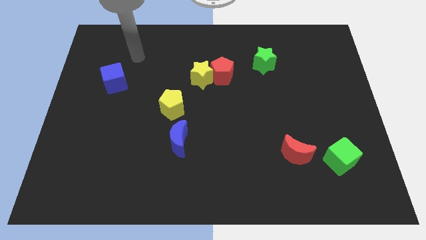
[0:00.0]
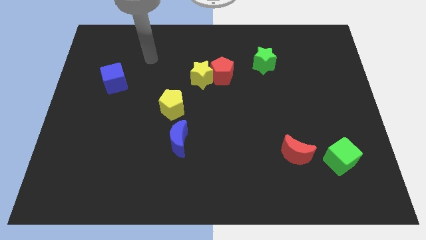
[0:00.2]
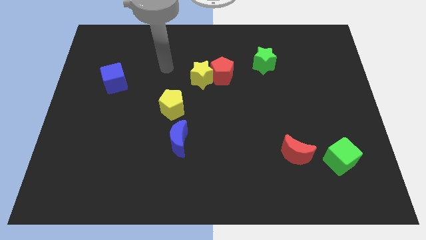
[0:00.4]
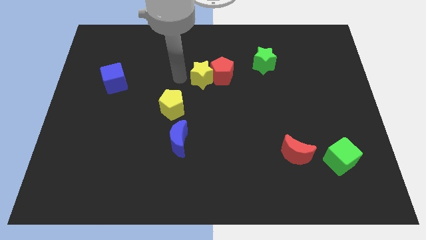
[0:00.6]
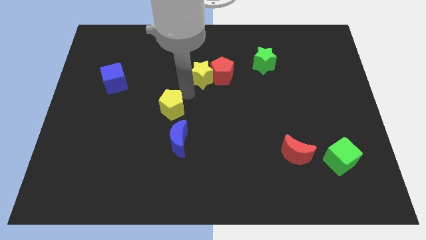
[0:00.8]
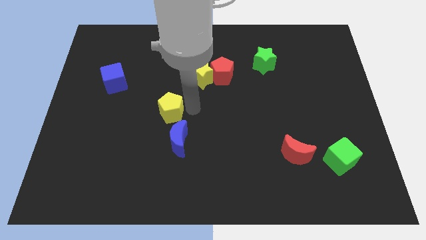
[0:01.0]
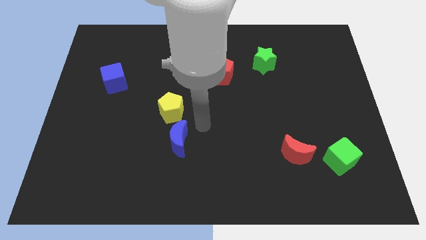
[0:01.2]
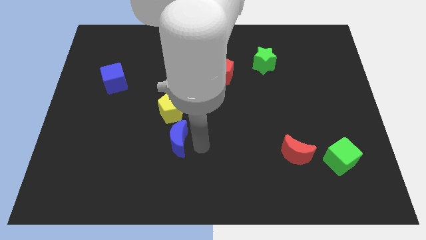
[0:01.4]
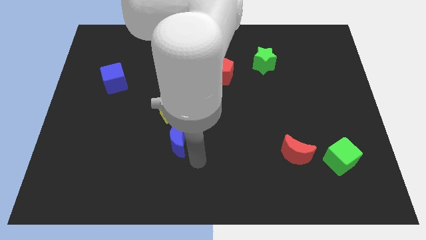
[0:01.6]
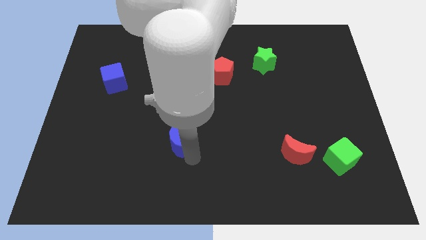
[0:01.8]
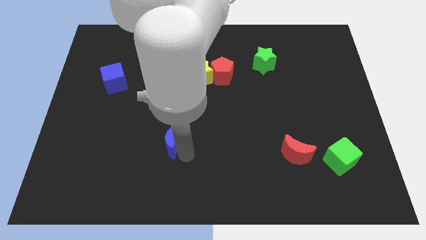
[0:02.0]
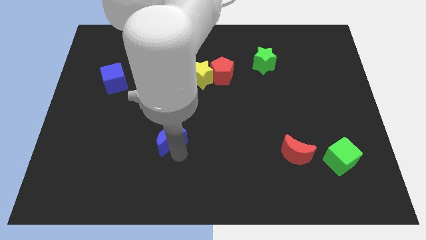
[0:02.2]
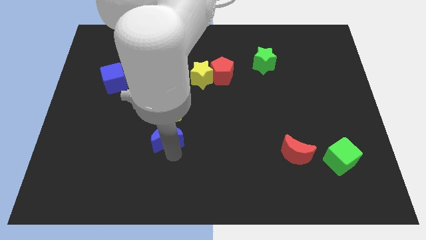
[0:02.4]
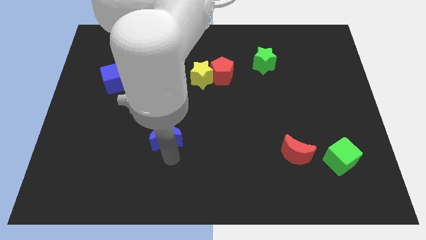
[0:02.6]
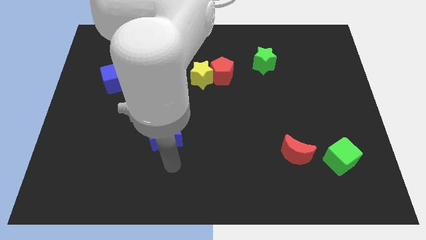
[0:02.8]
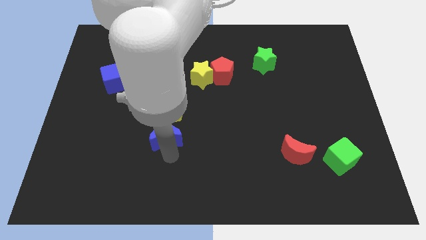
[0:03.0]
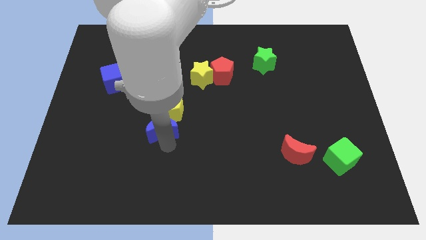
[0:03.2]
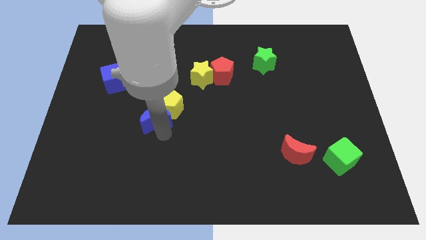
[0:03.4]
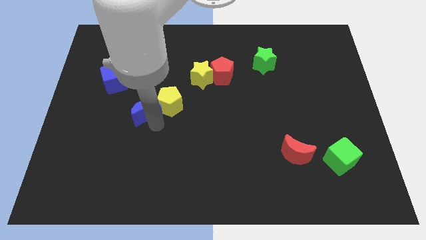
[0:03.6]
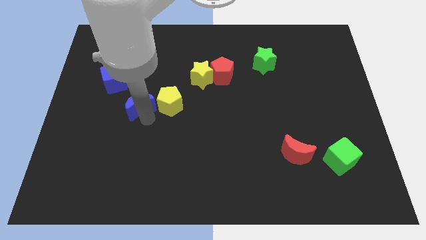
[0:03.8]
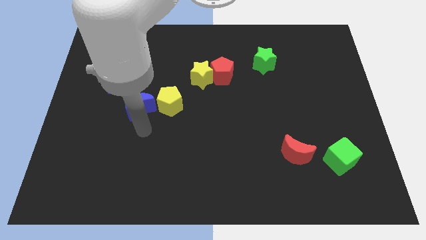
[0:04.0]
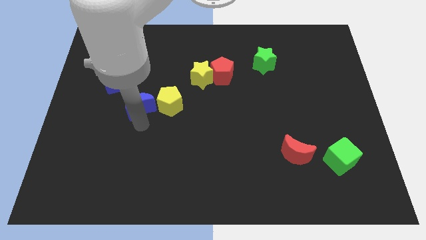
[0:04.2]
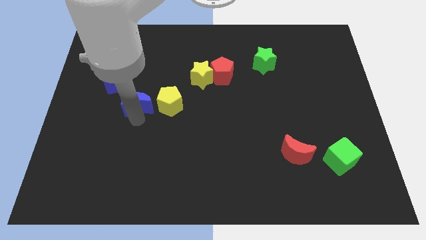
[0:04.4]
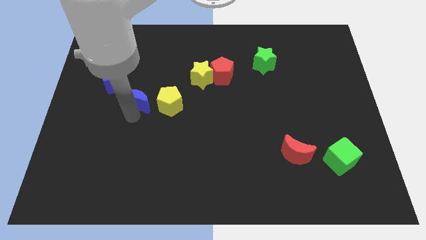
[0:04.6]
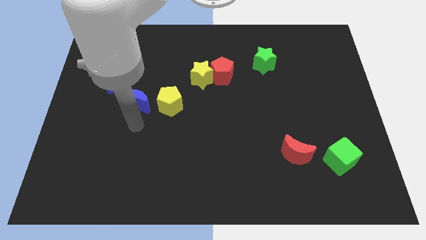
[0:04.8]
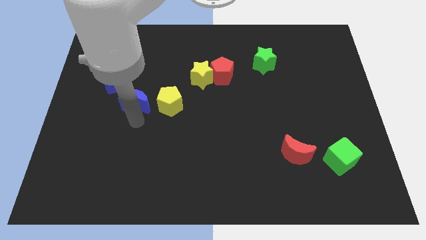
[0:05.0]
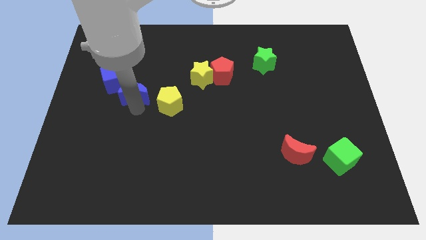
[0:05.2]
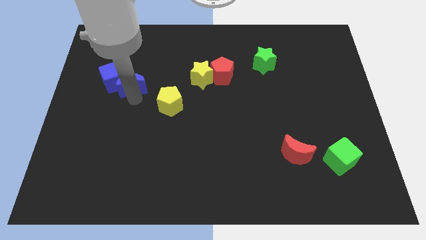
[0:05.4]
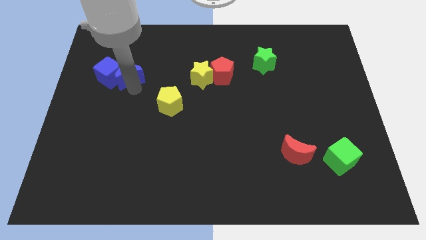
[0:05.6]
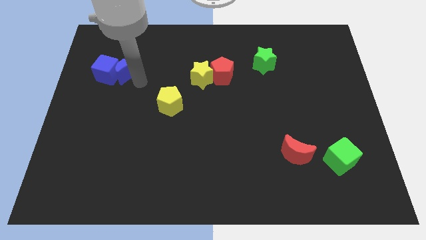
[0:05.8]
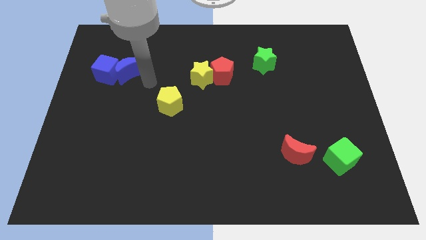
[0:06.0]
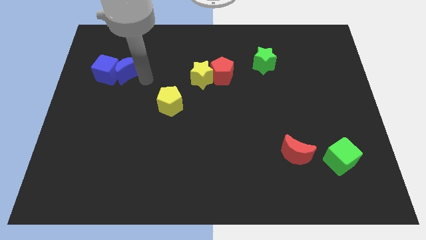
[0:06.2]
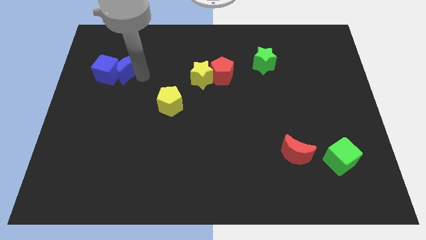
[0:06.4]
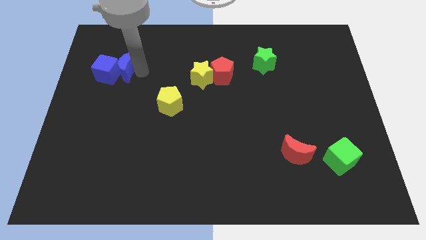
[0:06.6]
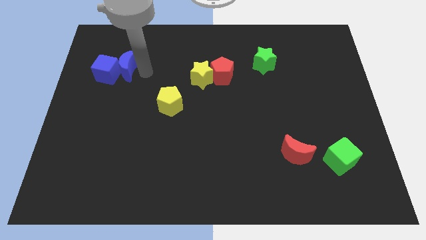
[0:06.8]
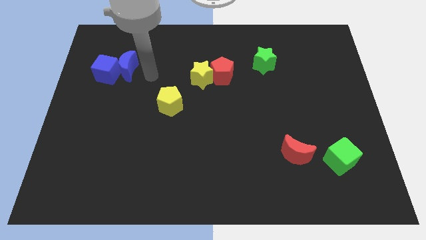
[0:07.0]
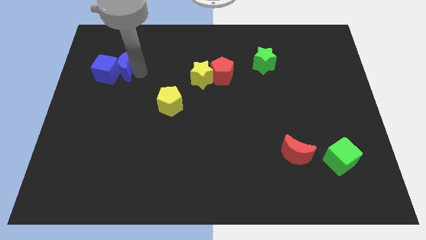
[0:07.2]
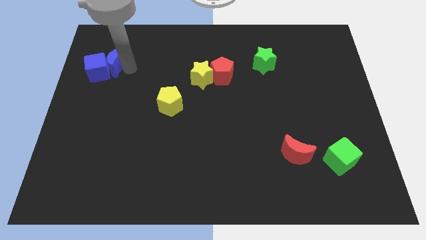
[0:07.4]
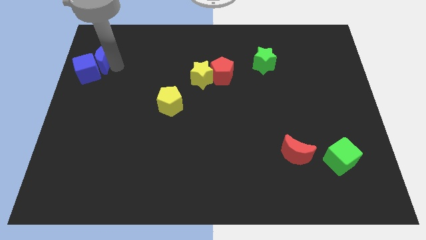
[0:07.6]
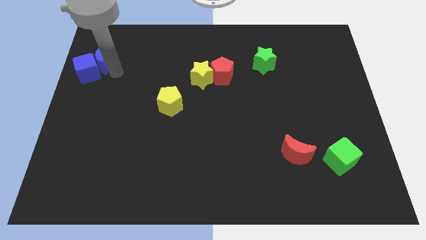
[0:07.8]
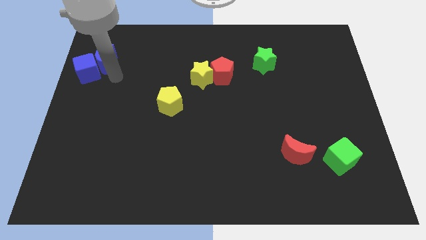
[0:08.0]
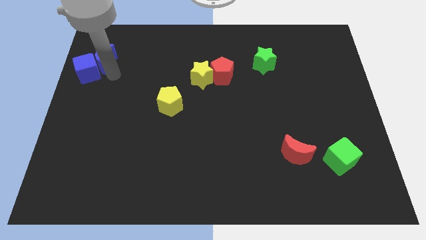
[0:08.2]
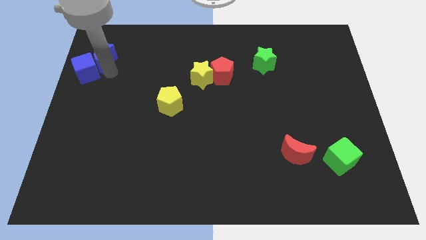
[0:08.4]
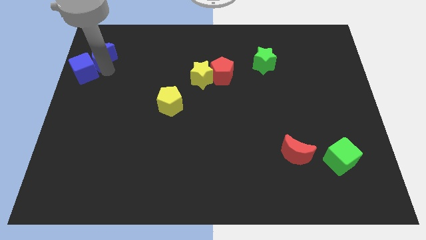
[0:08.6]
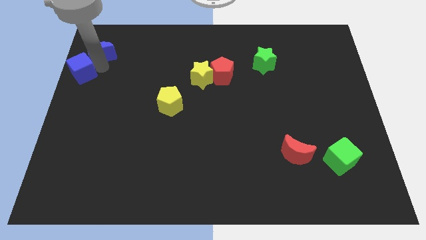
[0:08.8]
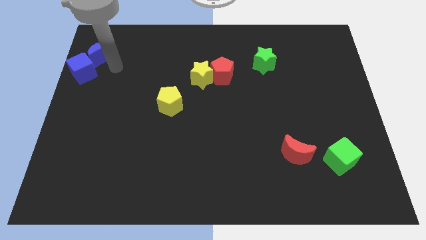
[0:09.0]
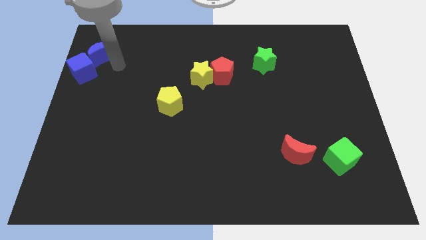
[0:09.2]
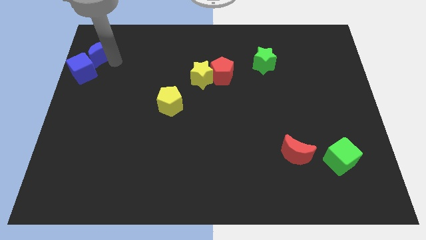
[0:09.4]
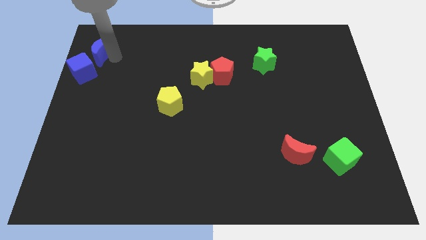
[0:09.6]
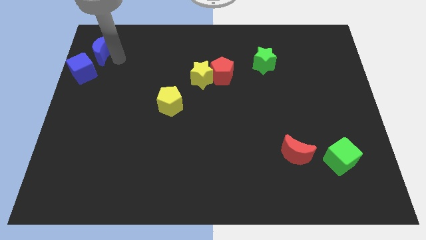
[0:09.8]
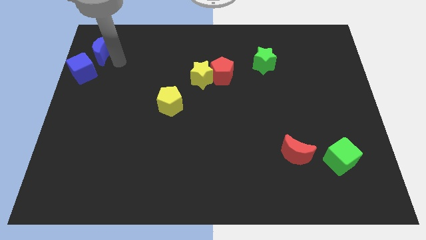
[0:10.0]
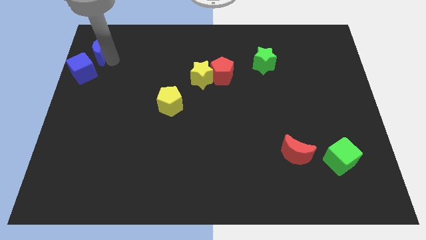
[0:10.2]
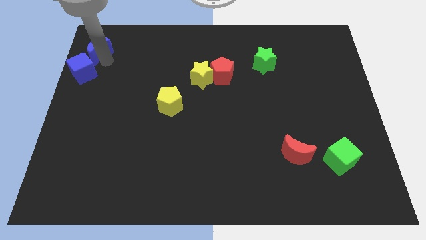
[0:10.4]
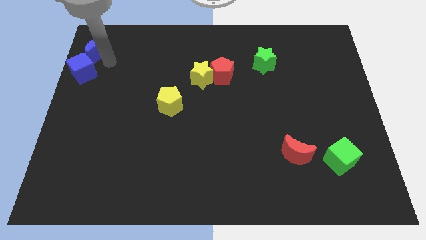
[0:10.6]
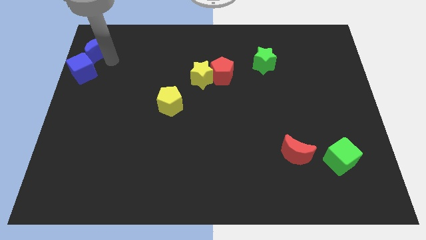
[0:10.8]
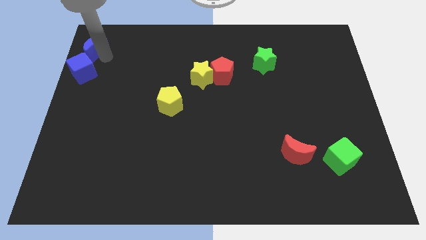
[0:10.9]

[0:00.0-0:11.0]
move the blue moon to the top left of the board

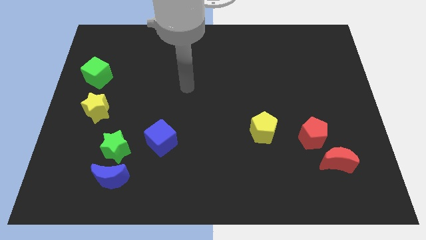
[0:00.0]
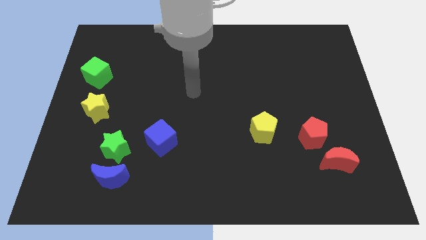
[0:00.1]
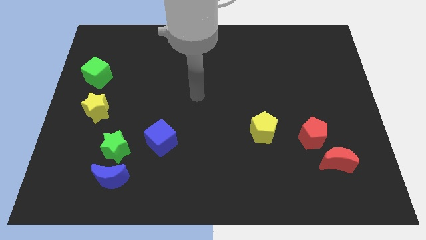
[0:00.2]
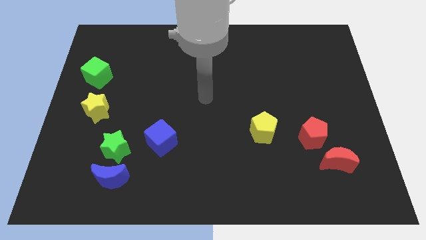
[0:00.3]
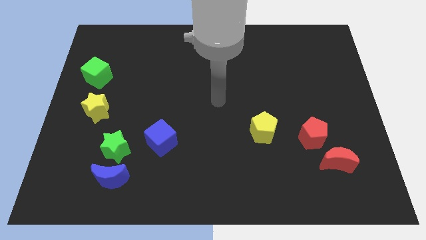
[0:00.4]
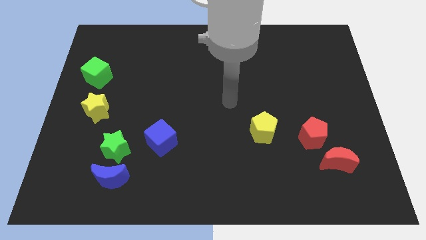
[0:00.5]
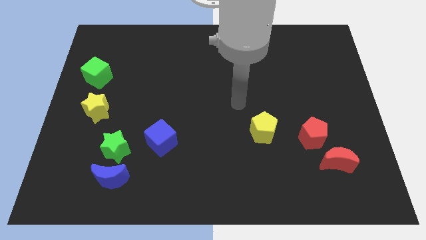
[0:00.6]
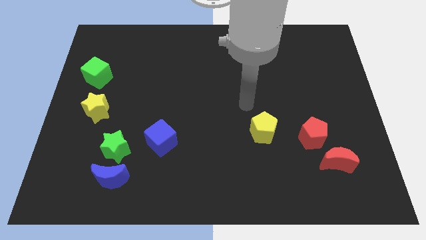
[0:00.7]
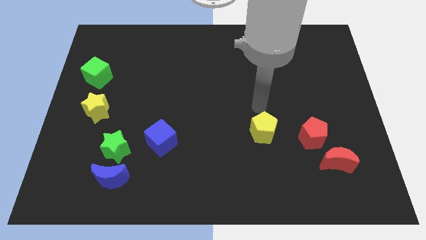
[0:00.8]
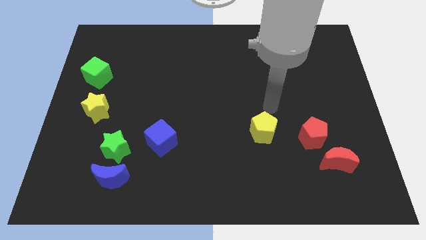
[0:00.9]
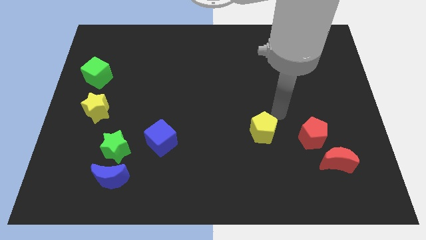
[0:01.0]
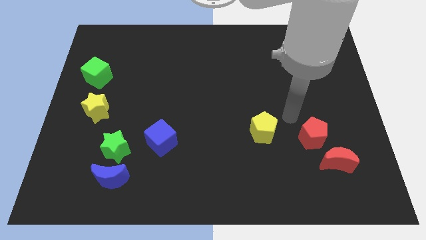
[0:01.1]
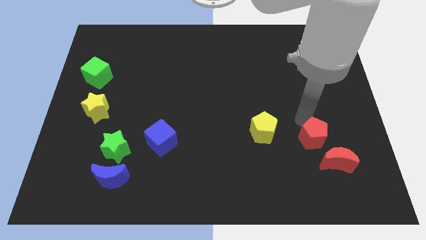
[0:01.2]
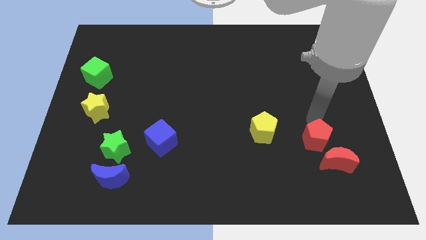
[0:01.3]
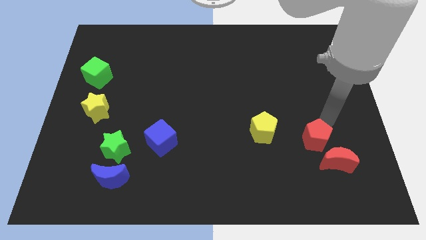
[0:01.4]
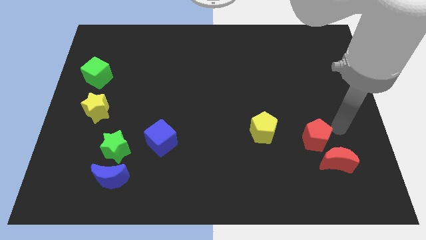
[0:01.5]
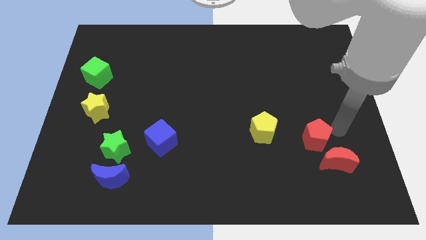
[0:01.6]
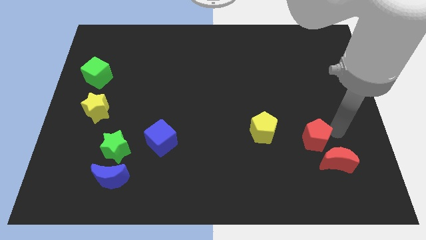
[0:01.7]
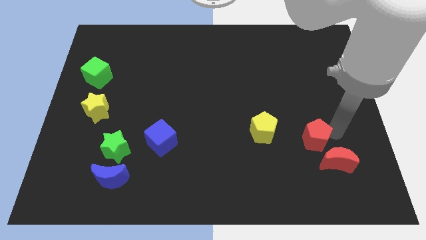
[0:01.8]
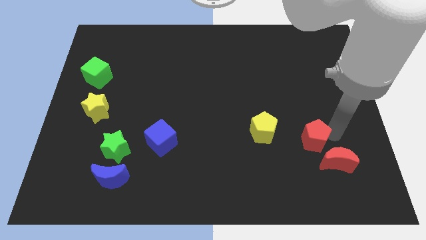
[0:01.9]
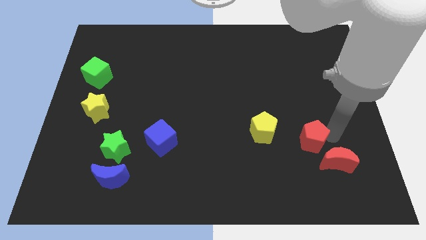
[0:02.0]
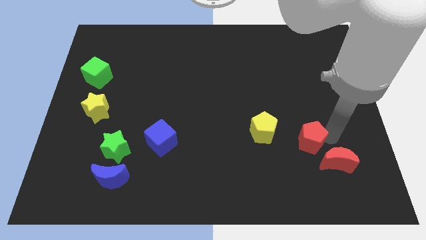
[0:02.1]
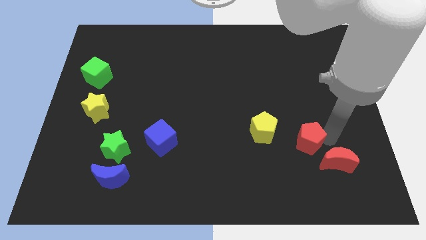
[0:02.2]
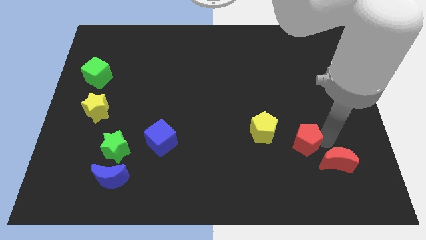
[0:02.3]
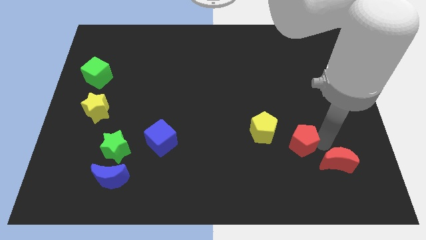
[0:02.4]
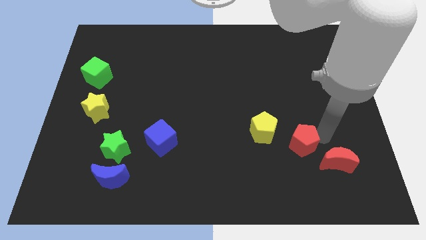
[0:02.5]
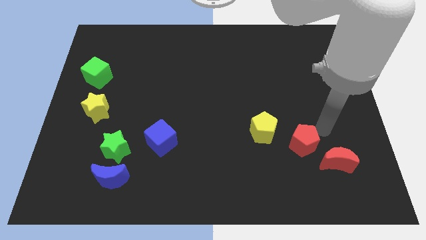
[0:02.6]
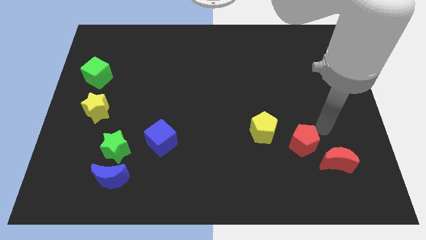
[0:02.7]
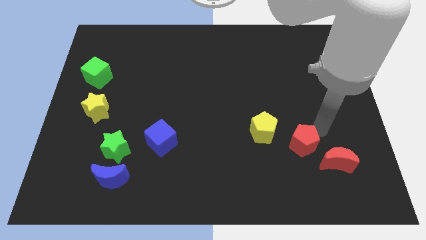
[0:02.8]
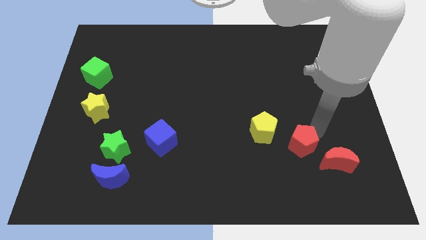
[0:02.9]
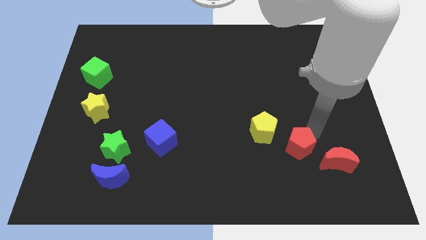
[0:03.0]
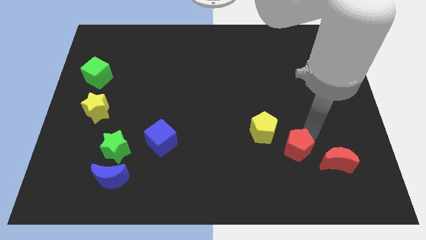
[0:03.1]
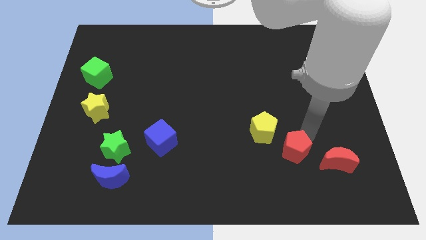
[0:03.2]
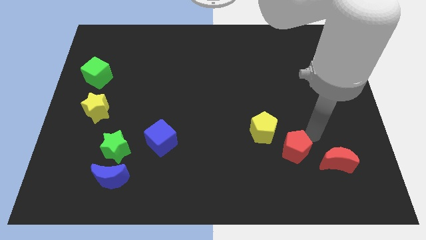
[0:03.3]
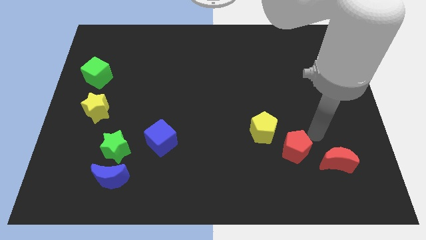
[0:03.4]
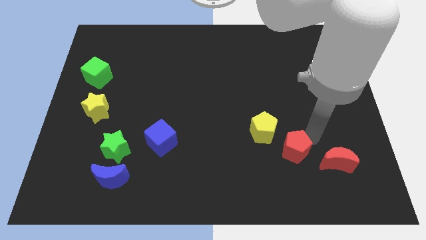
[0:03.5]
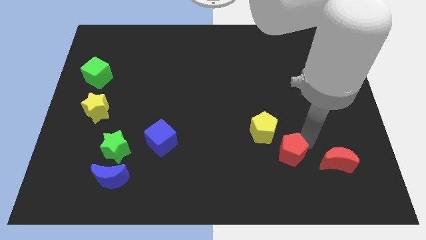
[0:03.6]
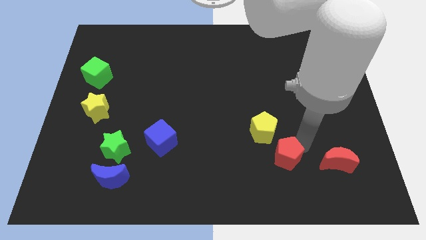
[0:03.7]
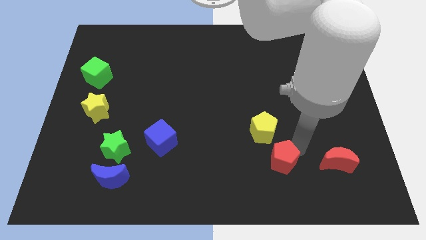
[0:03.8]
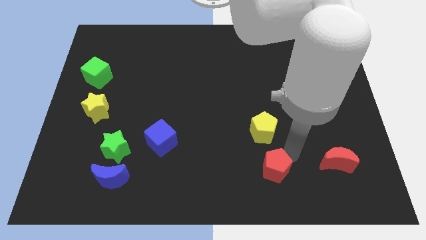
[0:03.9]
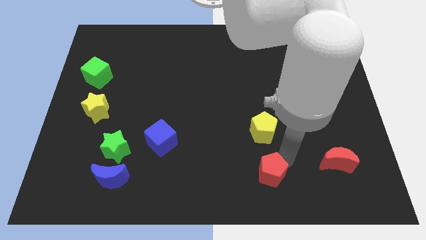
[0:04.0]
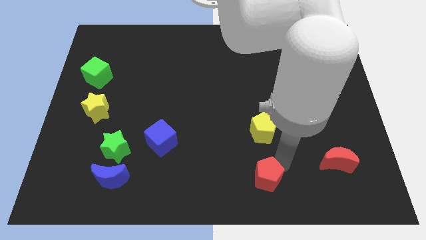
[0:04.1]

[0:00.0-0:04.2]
push the red pentagon to the bottom
